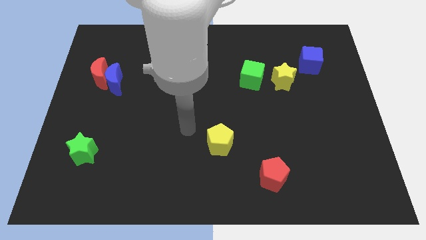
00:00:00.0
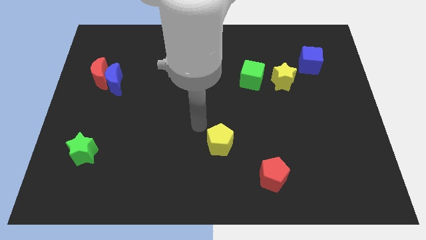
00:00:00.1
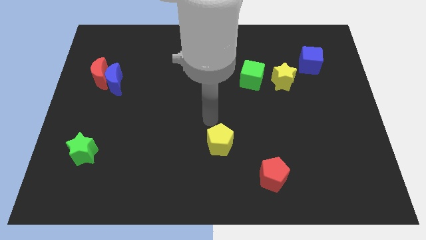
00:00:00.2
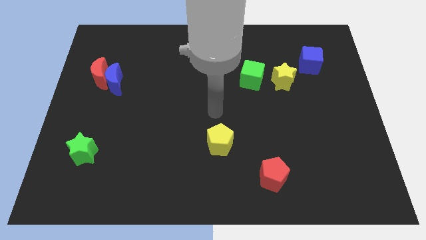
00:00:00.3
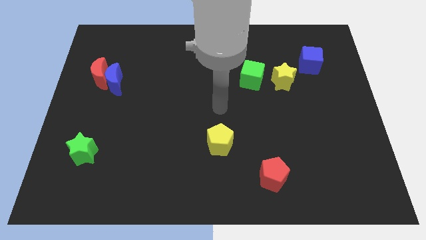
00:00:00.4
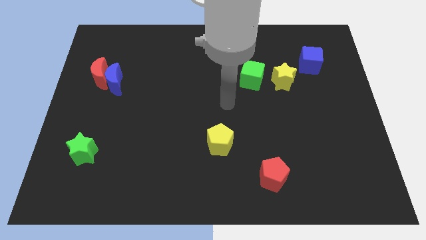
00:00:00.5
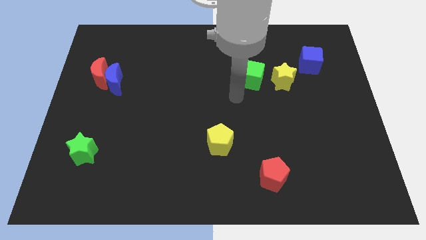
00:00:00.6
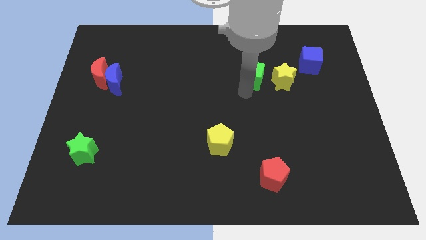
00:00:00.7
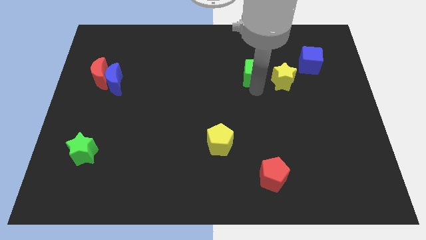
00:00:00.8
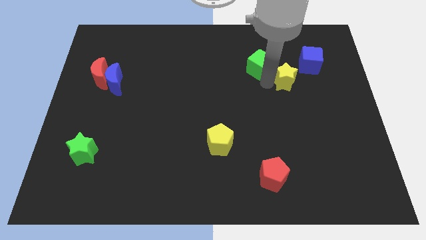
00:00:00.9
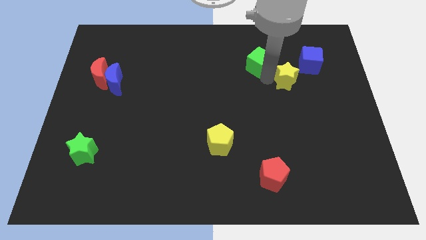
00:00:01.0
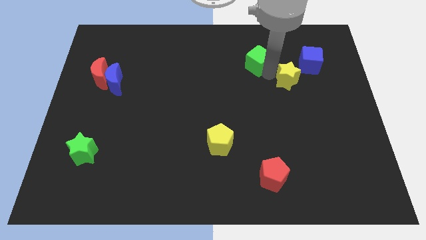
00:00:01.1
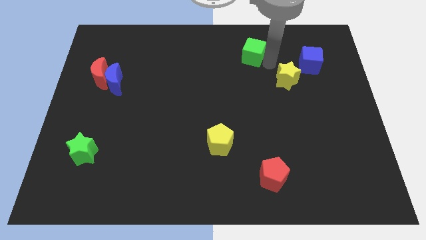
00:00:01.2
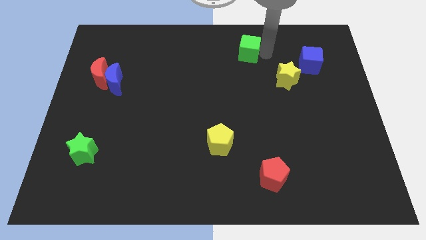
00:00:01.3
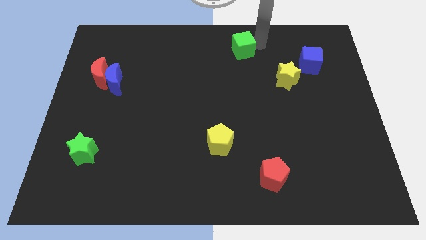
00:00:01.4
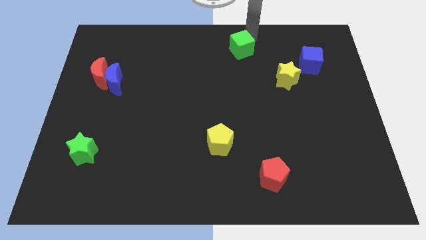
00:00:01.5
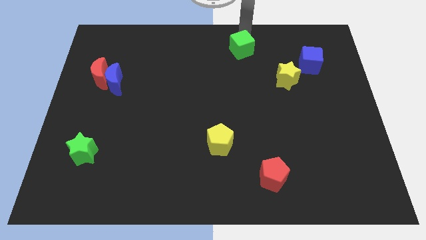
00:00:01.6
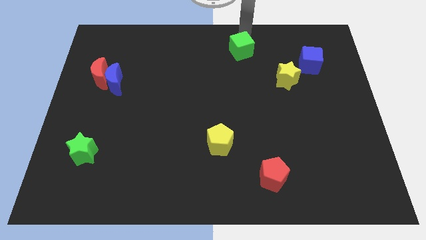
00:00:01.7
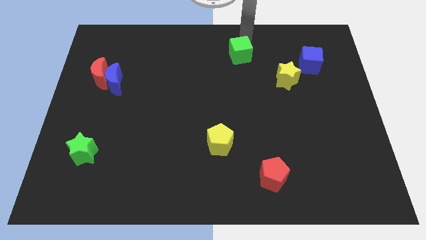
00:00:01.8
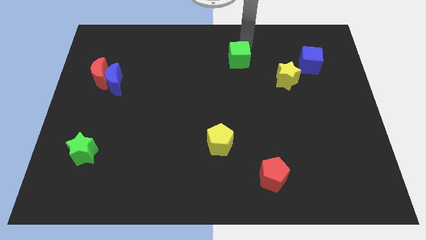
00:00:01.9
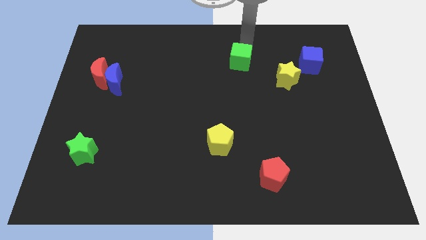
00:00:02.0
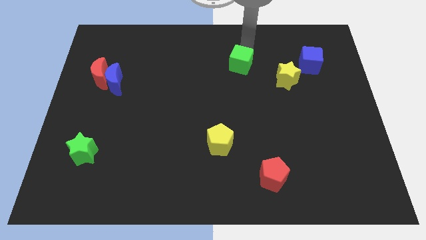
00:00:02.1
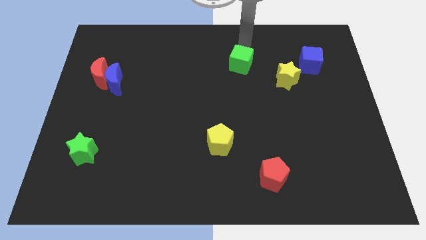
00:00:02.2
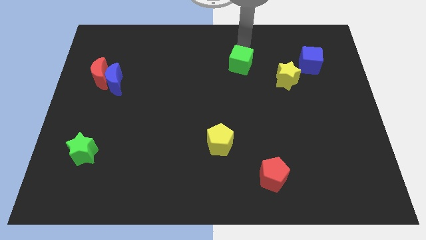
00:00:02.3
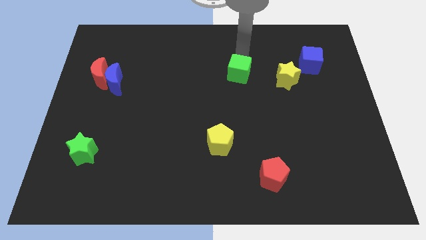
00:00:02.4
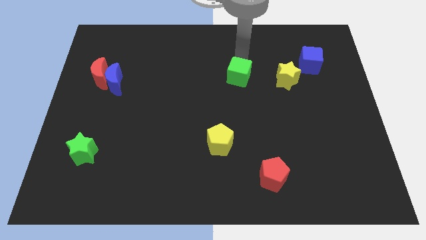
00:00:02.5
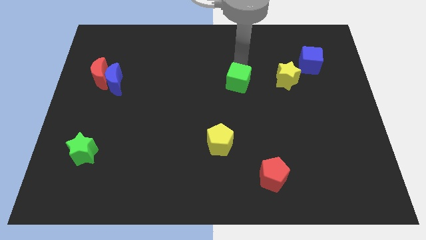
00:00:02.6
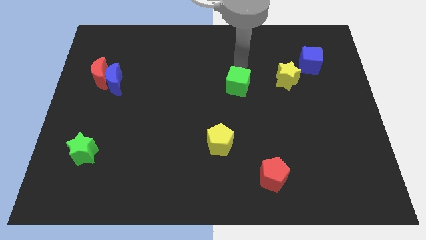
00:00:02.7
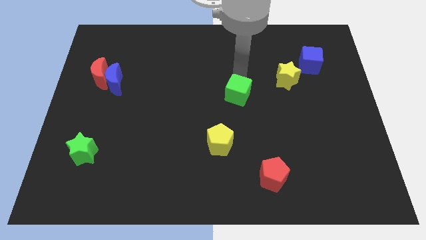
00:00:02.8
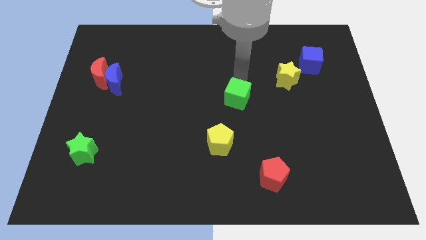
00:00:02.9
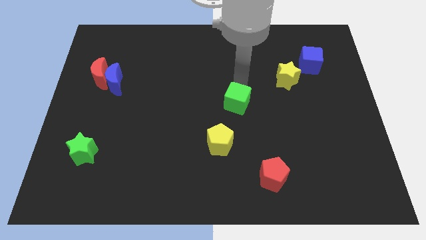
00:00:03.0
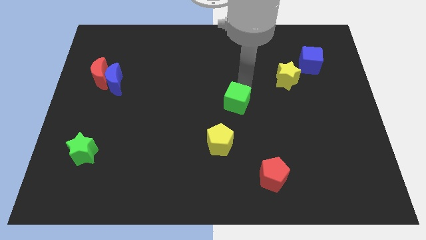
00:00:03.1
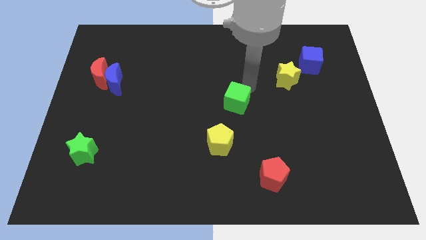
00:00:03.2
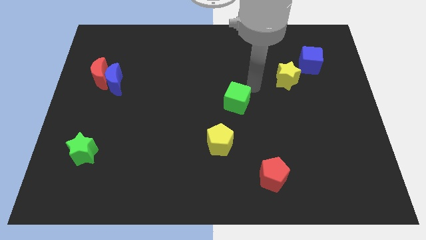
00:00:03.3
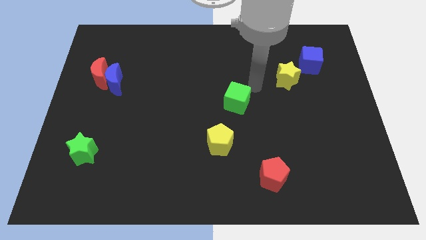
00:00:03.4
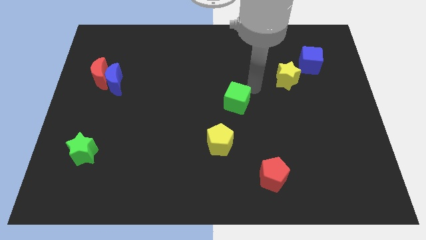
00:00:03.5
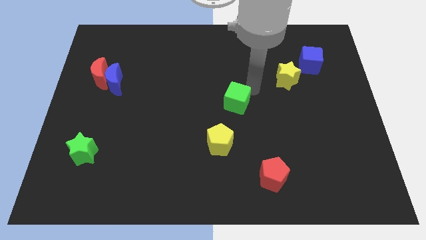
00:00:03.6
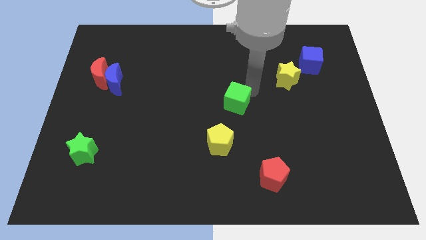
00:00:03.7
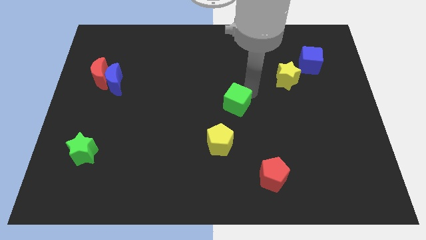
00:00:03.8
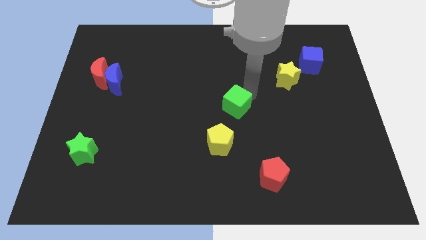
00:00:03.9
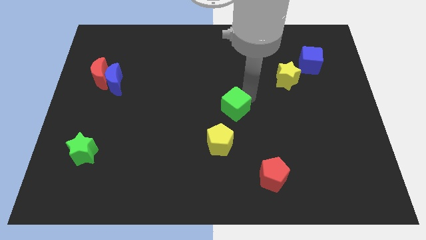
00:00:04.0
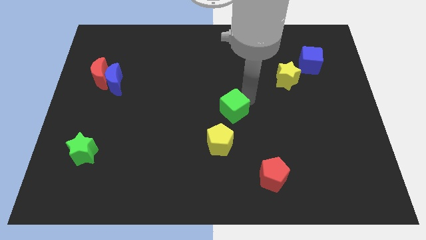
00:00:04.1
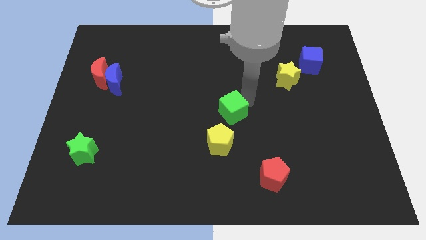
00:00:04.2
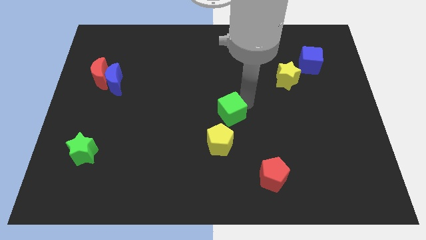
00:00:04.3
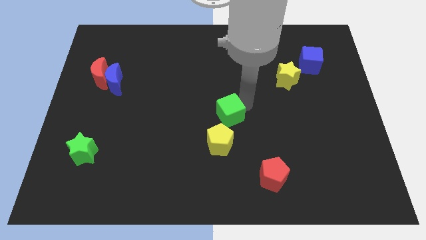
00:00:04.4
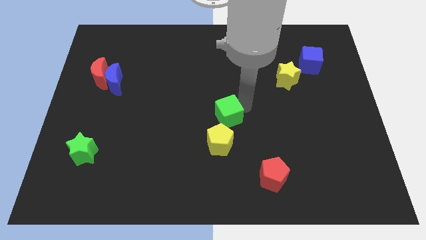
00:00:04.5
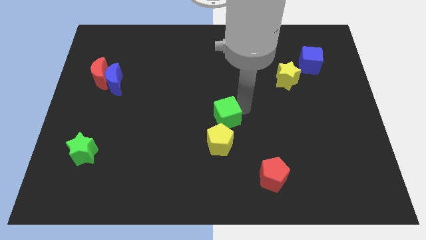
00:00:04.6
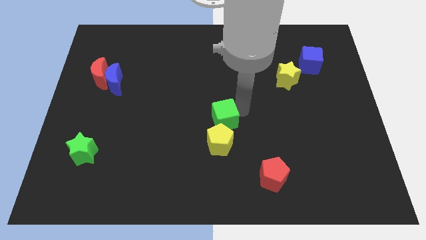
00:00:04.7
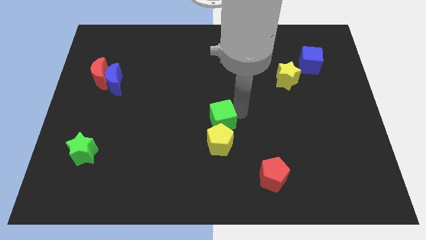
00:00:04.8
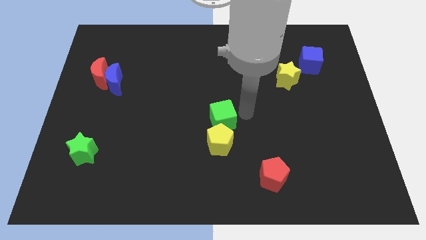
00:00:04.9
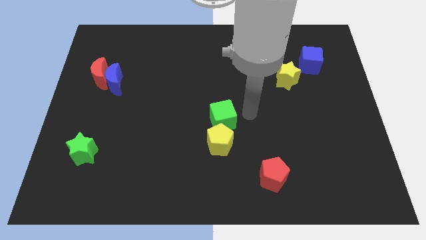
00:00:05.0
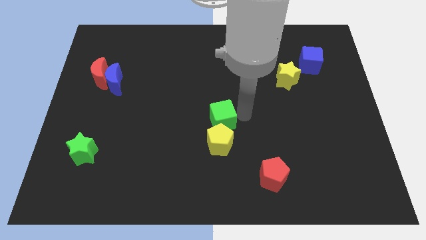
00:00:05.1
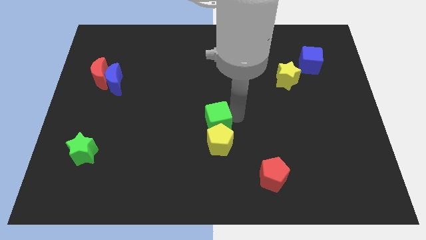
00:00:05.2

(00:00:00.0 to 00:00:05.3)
slide the green cube to the top left side of the yellow pentagon
